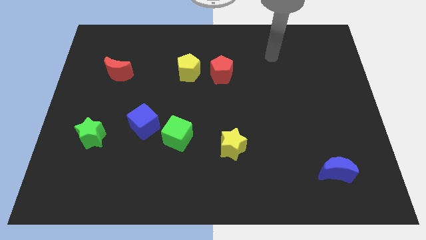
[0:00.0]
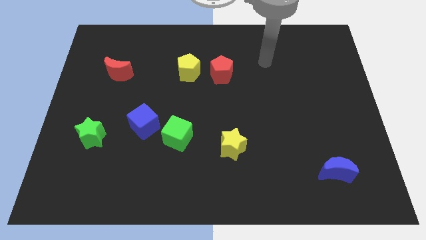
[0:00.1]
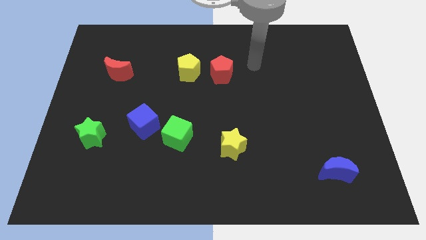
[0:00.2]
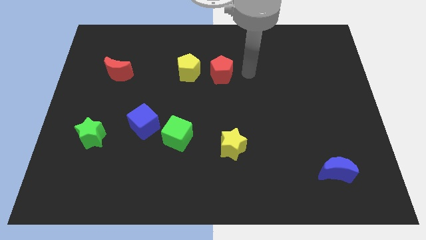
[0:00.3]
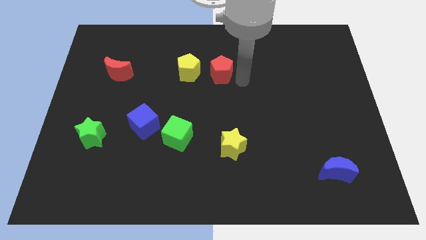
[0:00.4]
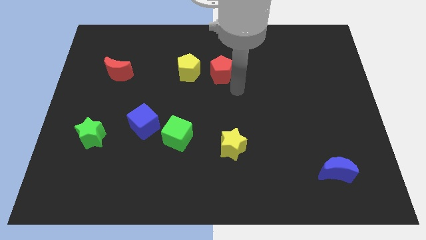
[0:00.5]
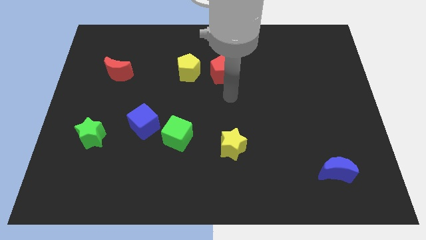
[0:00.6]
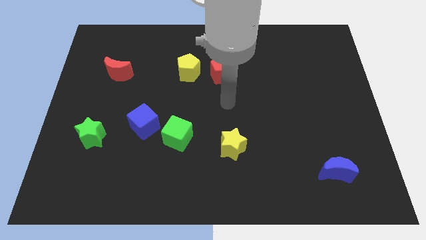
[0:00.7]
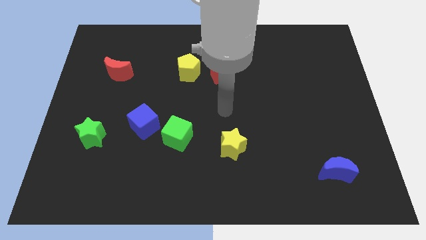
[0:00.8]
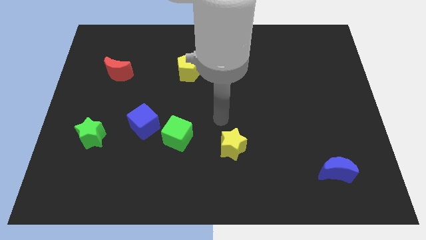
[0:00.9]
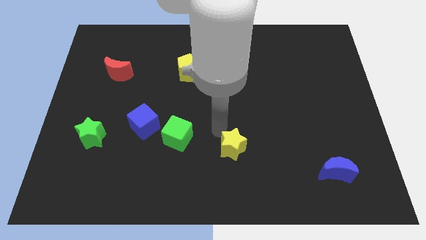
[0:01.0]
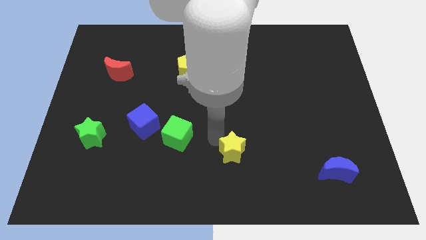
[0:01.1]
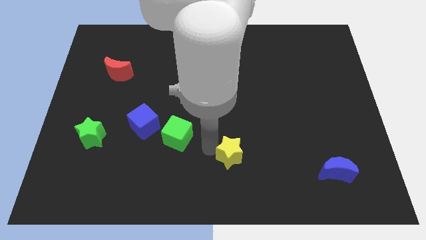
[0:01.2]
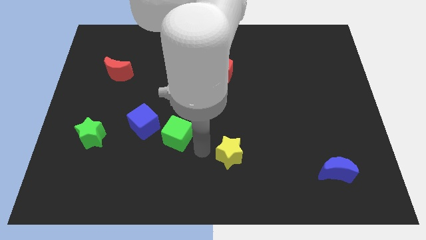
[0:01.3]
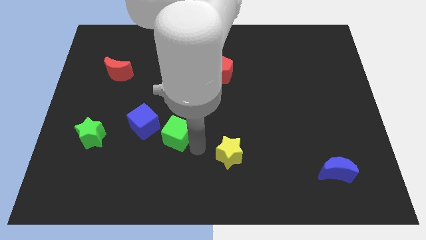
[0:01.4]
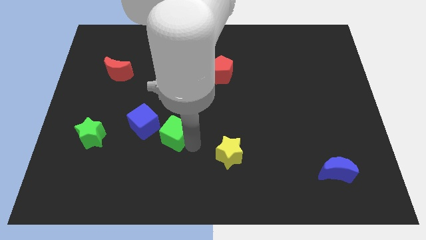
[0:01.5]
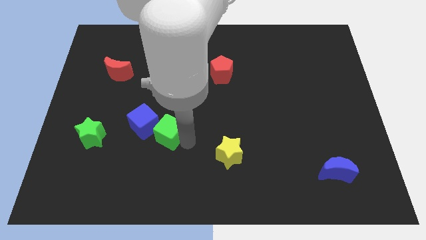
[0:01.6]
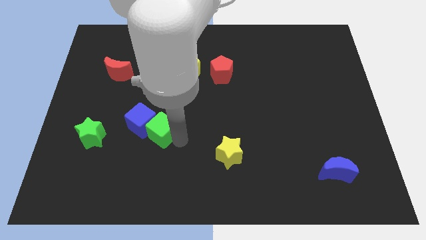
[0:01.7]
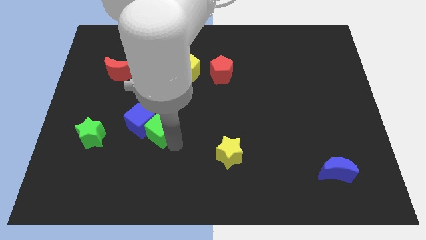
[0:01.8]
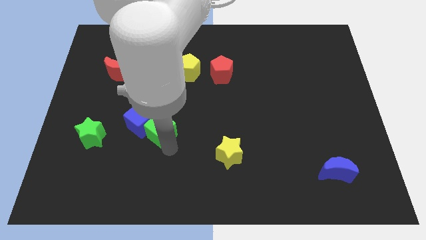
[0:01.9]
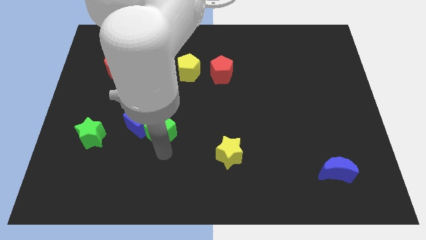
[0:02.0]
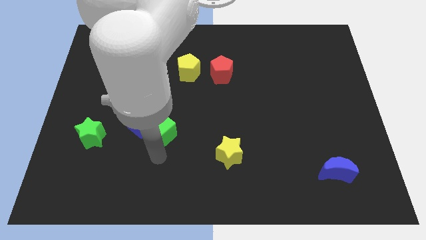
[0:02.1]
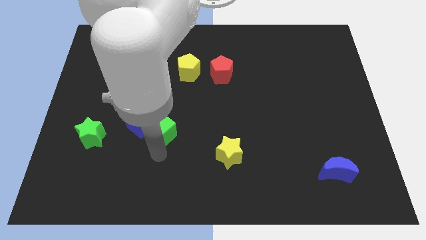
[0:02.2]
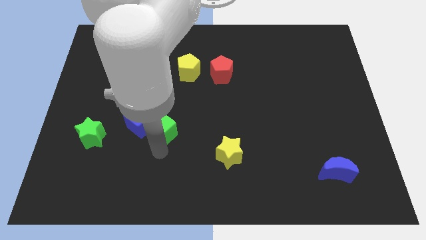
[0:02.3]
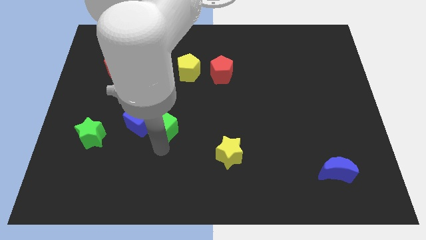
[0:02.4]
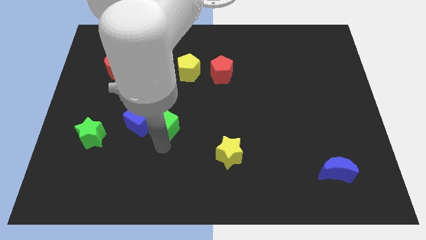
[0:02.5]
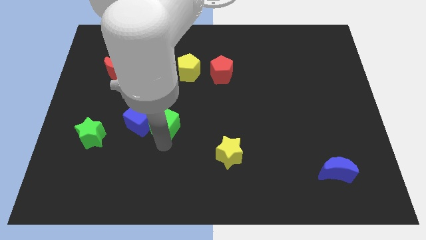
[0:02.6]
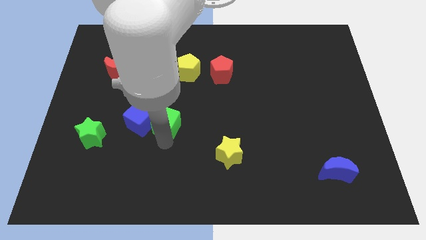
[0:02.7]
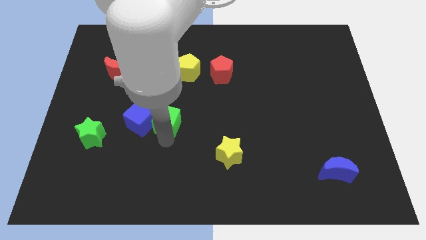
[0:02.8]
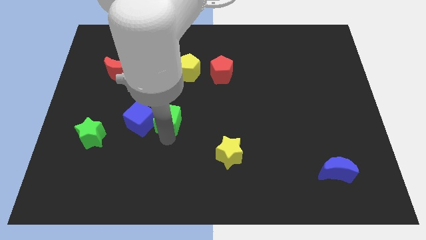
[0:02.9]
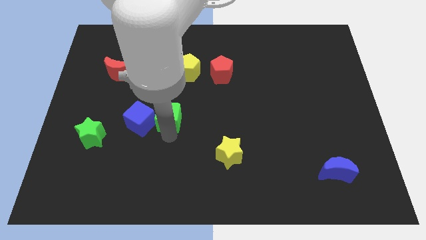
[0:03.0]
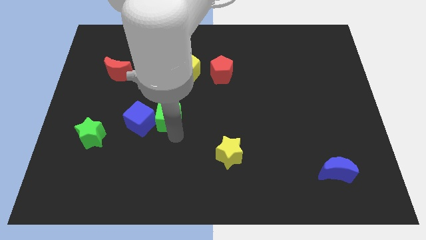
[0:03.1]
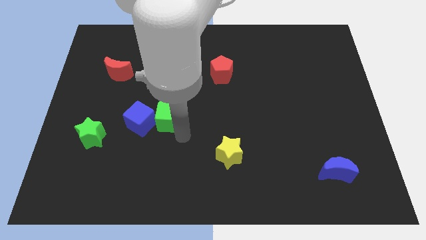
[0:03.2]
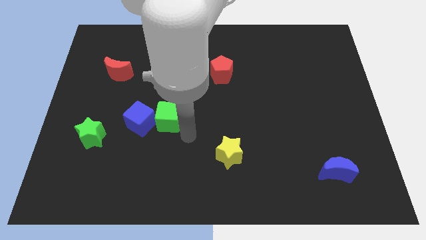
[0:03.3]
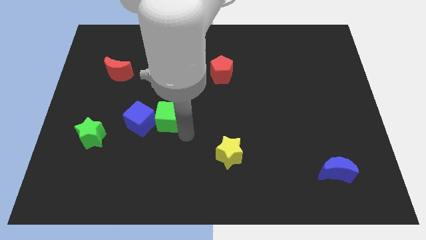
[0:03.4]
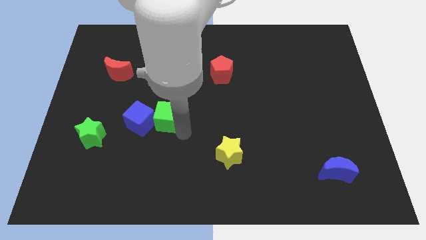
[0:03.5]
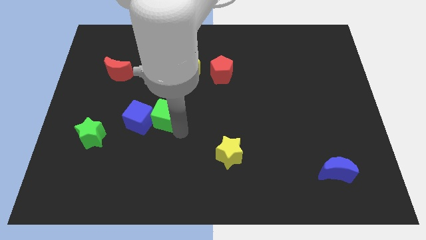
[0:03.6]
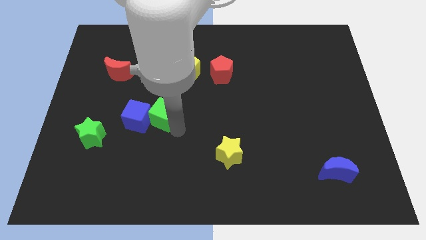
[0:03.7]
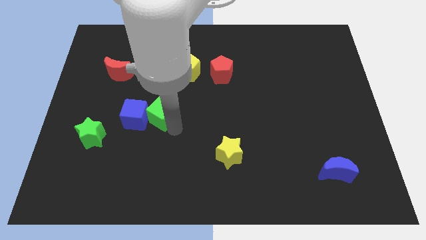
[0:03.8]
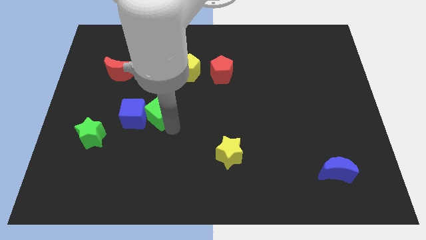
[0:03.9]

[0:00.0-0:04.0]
slide the green cube up and to the left diagonally slightly

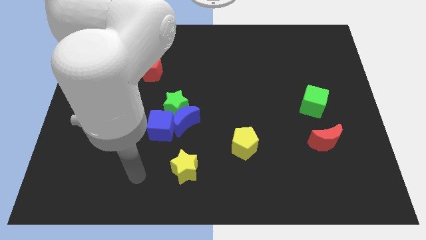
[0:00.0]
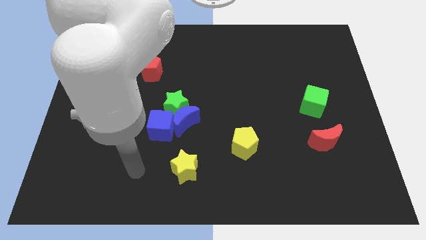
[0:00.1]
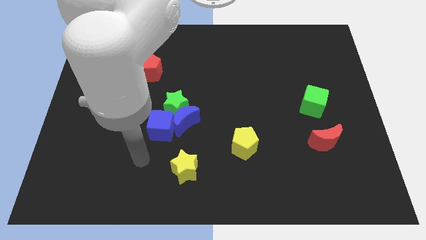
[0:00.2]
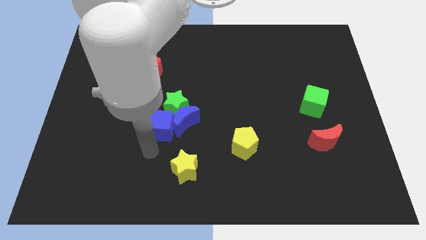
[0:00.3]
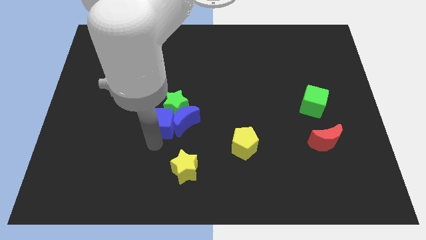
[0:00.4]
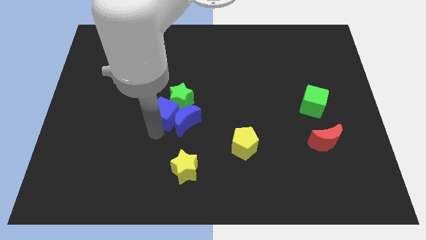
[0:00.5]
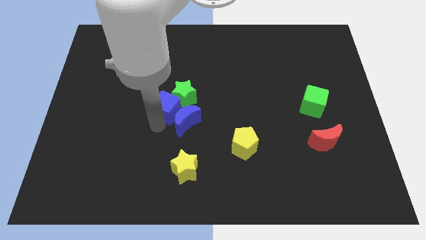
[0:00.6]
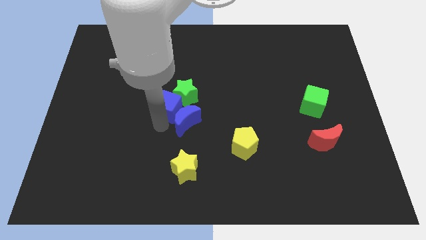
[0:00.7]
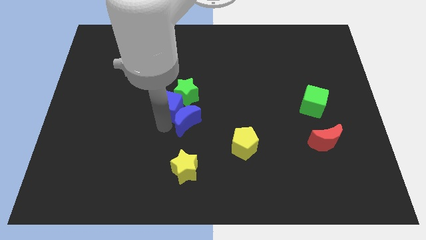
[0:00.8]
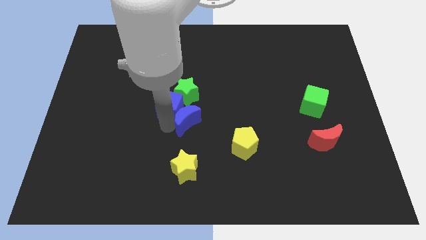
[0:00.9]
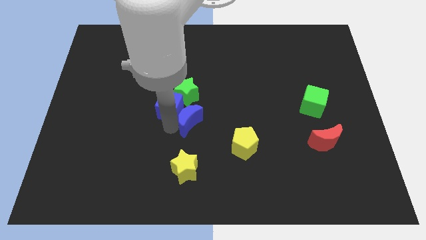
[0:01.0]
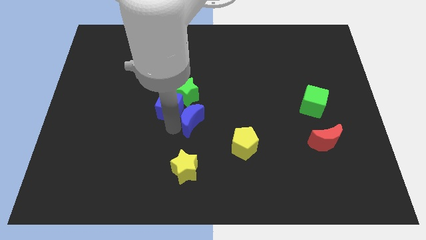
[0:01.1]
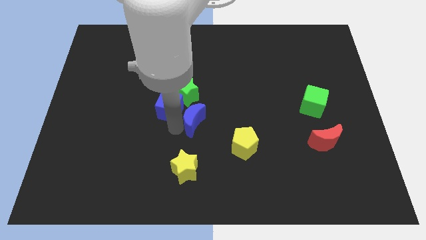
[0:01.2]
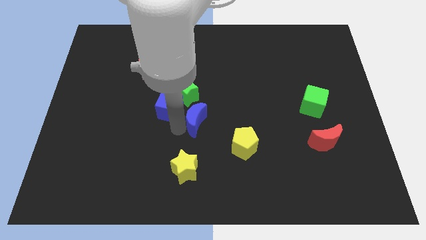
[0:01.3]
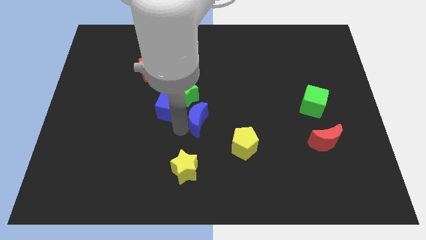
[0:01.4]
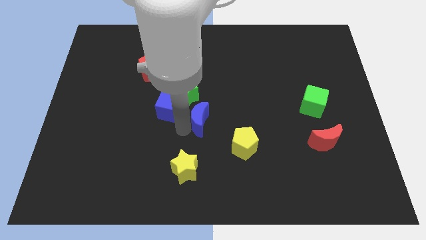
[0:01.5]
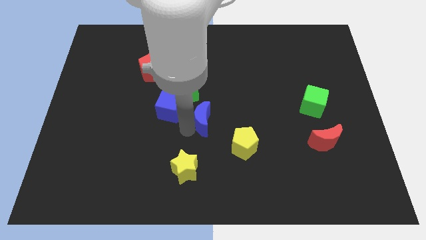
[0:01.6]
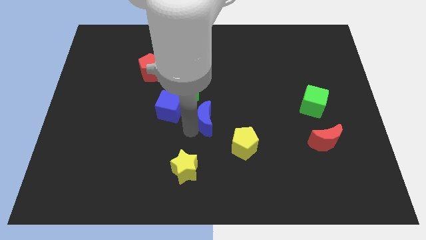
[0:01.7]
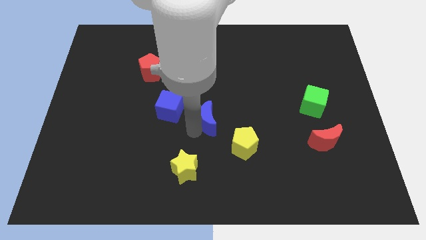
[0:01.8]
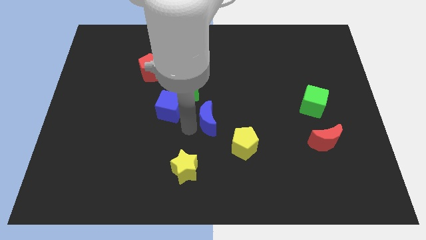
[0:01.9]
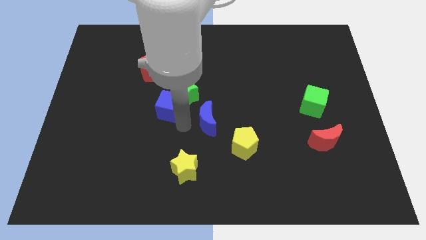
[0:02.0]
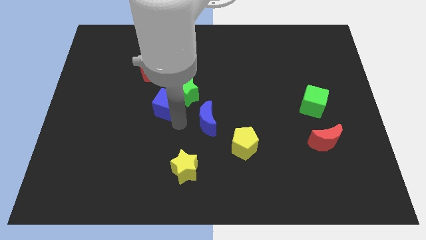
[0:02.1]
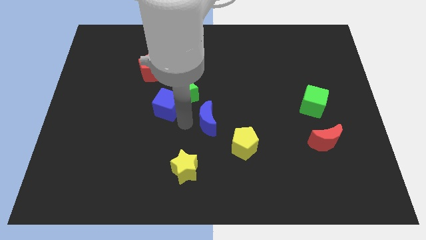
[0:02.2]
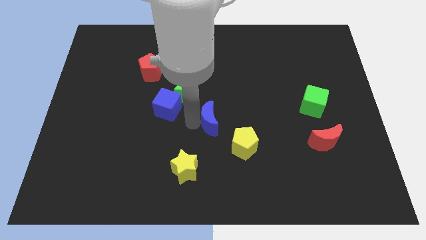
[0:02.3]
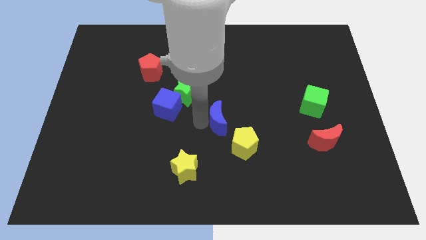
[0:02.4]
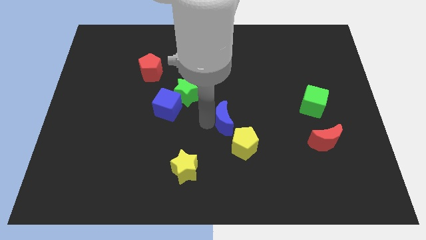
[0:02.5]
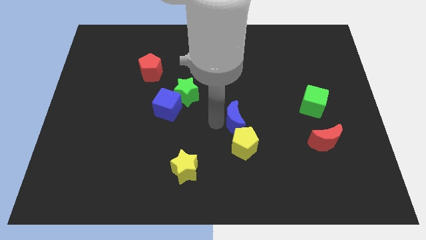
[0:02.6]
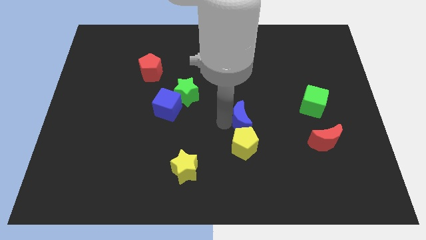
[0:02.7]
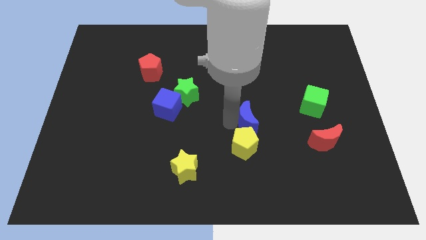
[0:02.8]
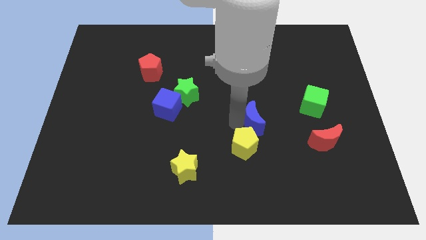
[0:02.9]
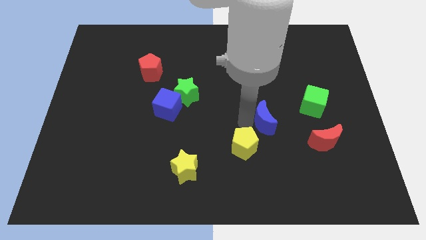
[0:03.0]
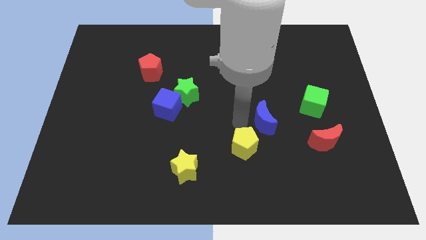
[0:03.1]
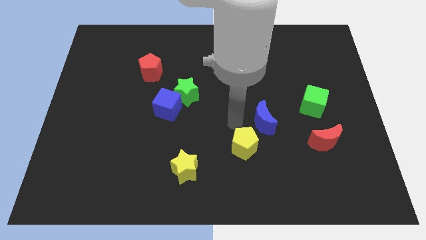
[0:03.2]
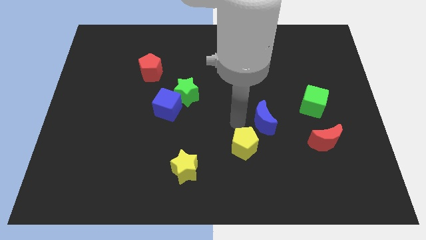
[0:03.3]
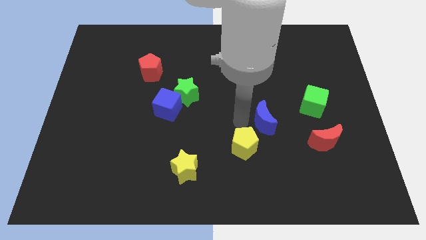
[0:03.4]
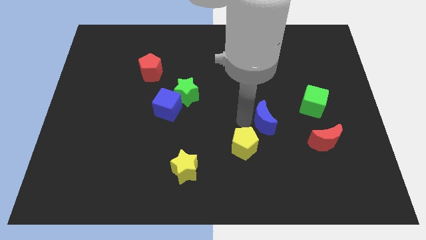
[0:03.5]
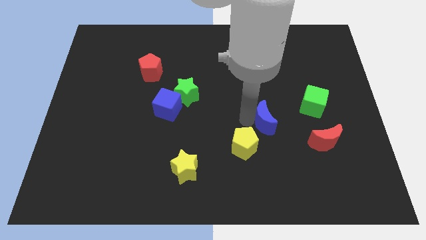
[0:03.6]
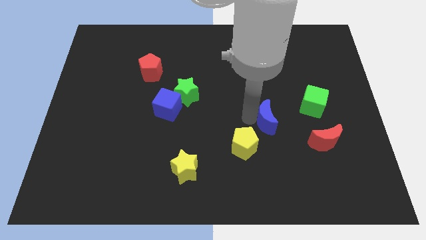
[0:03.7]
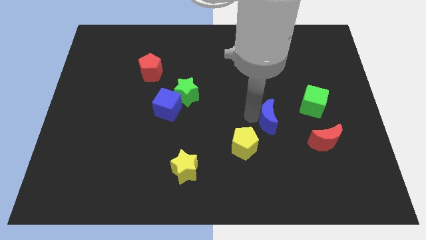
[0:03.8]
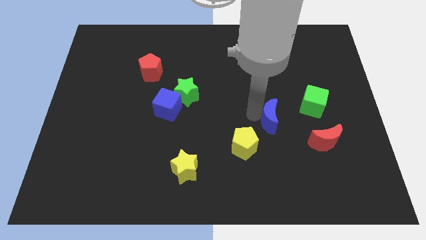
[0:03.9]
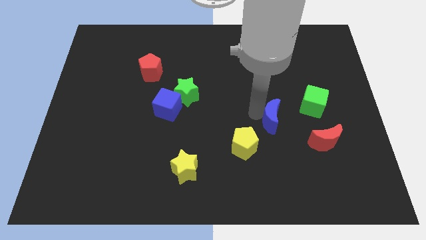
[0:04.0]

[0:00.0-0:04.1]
move the blue moon right
